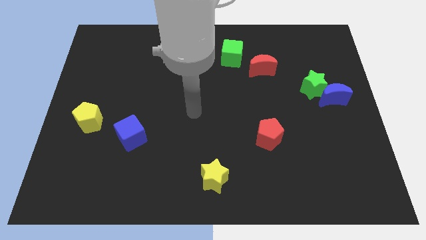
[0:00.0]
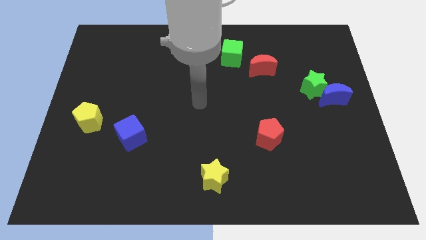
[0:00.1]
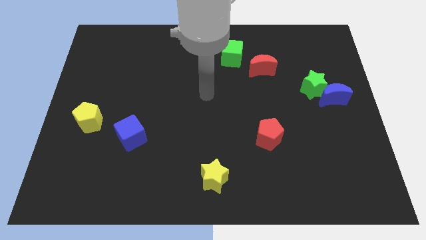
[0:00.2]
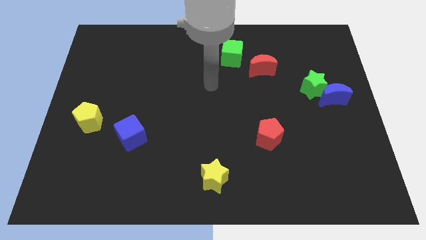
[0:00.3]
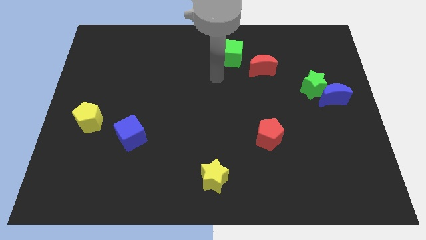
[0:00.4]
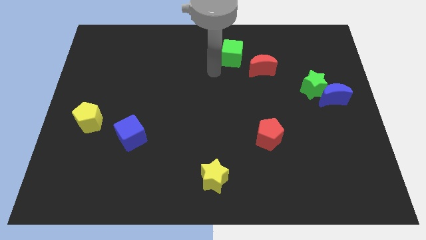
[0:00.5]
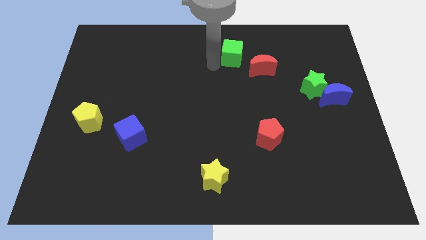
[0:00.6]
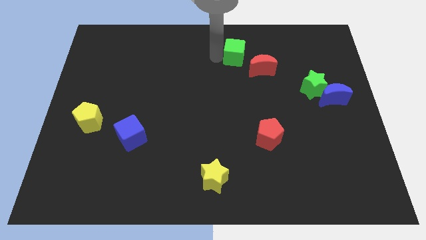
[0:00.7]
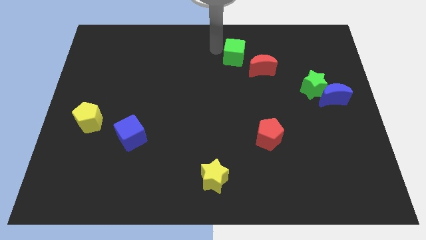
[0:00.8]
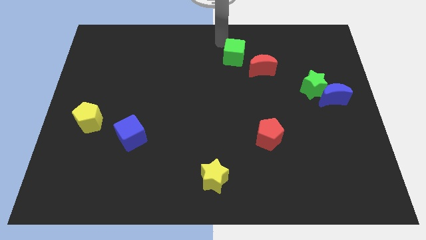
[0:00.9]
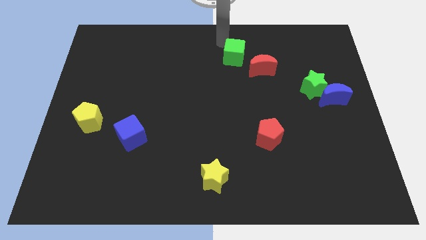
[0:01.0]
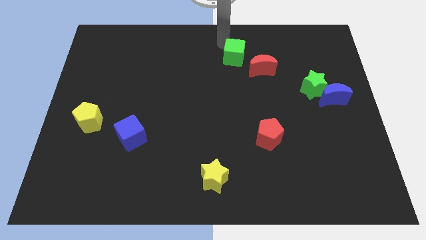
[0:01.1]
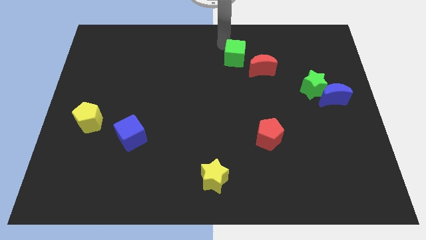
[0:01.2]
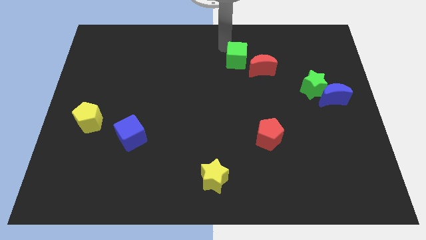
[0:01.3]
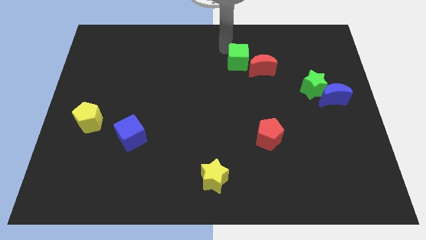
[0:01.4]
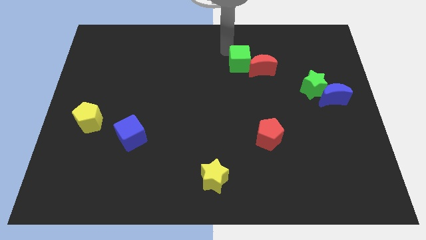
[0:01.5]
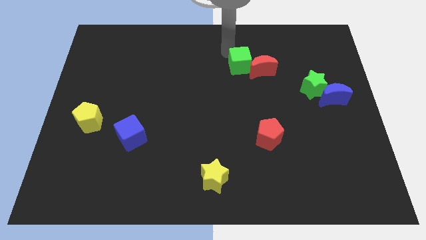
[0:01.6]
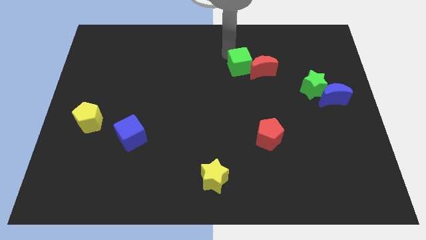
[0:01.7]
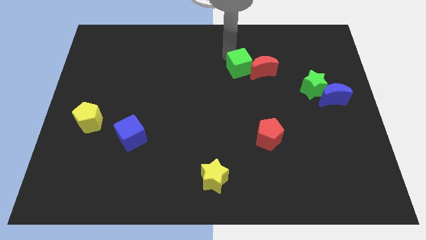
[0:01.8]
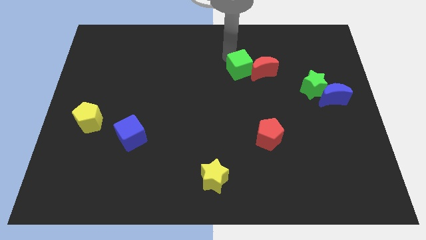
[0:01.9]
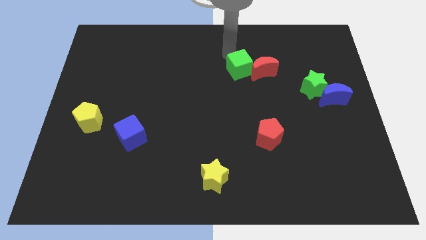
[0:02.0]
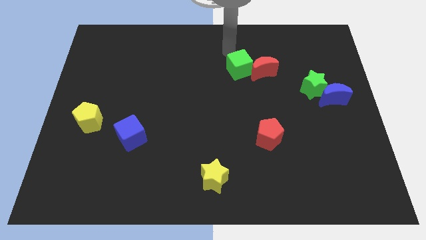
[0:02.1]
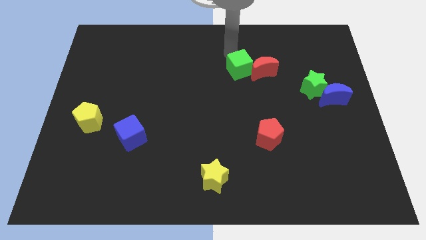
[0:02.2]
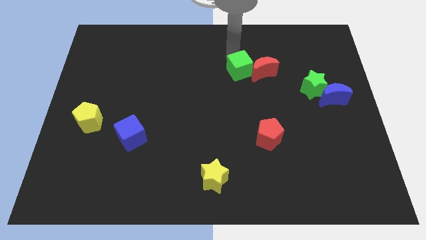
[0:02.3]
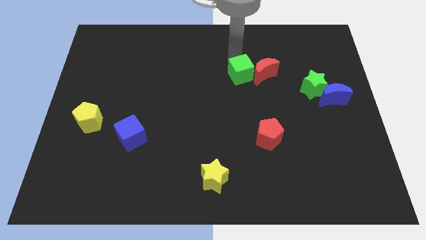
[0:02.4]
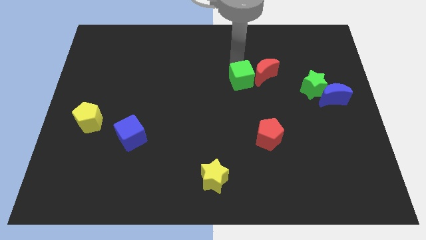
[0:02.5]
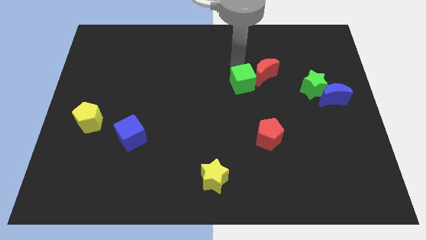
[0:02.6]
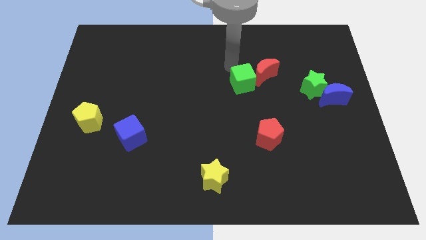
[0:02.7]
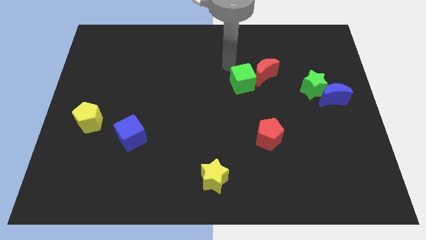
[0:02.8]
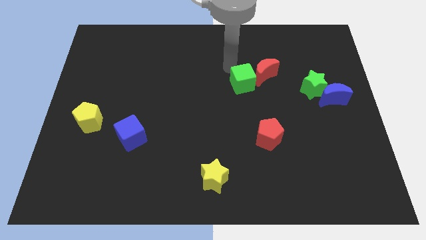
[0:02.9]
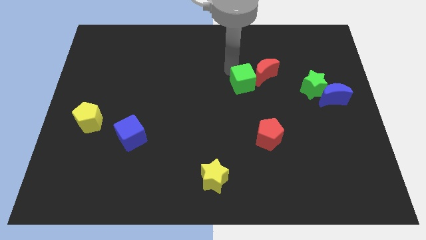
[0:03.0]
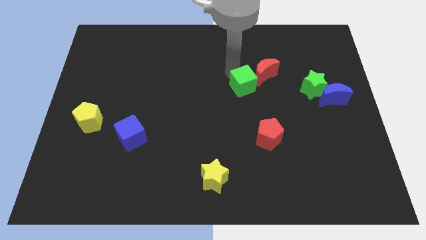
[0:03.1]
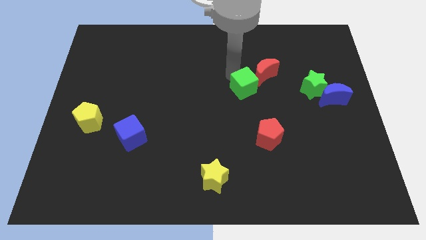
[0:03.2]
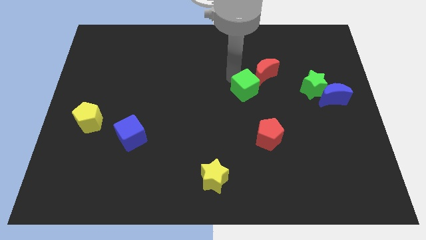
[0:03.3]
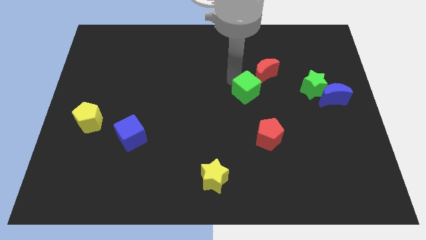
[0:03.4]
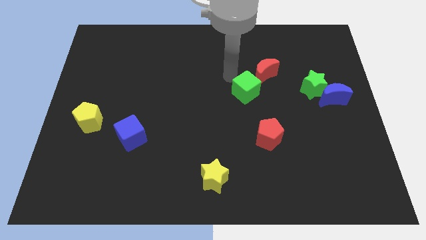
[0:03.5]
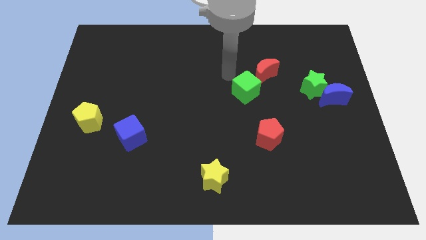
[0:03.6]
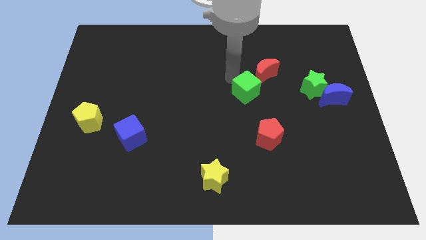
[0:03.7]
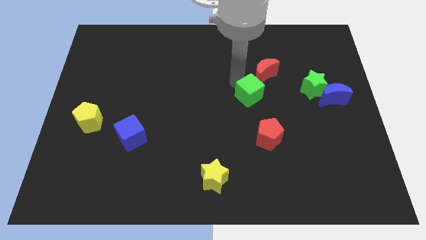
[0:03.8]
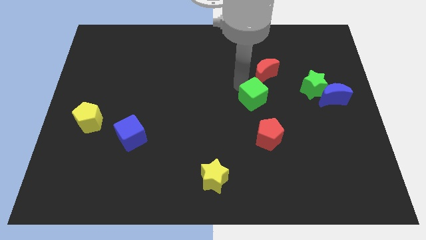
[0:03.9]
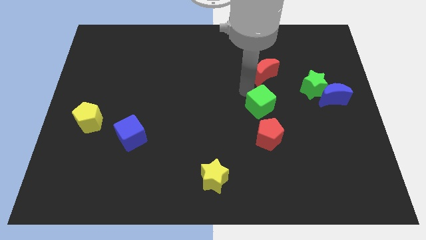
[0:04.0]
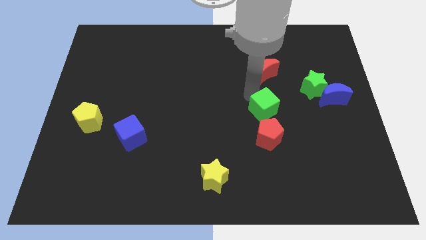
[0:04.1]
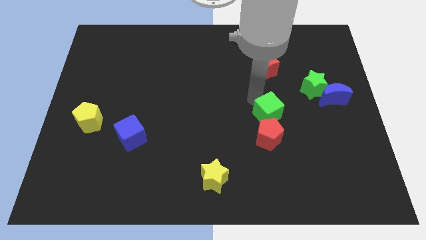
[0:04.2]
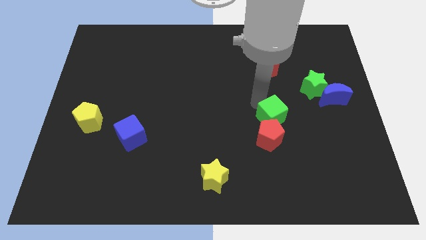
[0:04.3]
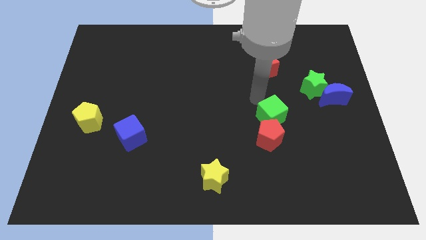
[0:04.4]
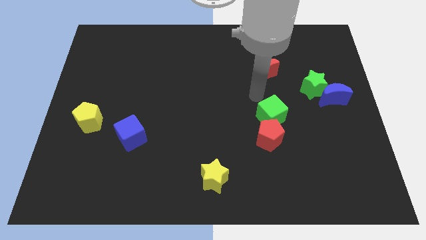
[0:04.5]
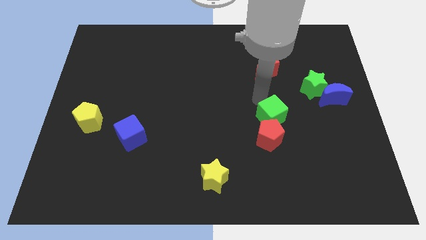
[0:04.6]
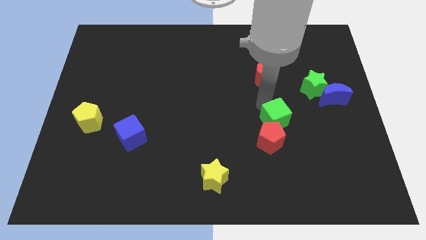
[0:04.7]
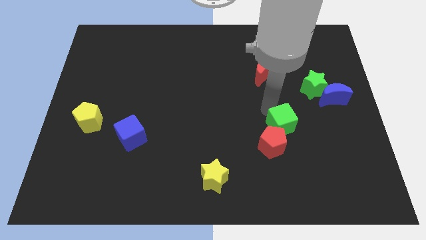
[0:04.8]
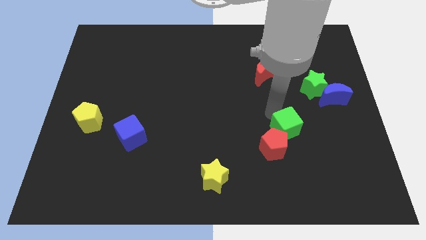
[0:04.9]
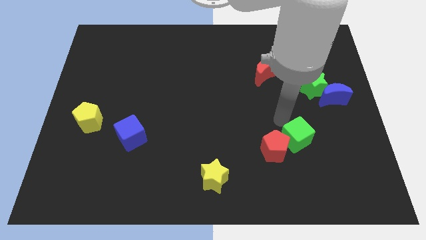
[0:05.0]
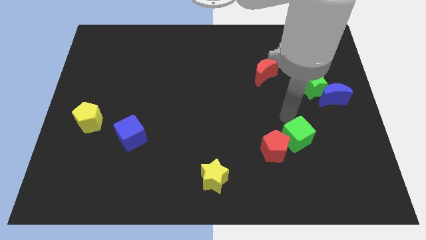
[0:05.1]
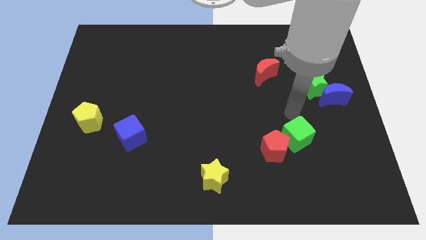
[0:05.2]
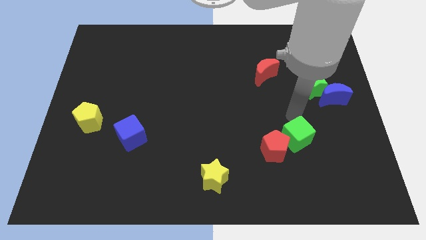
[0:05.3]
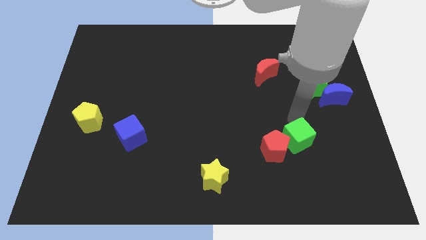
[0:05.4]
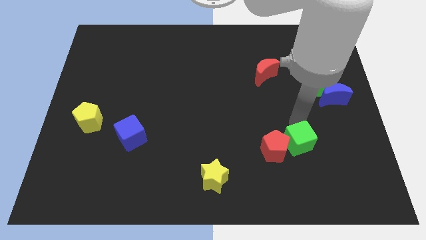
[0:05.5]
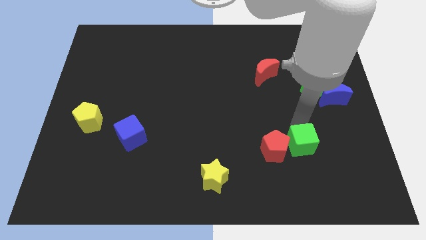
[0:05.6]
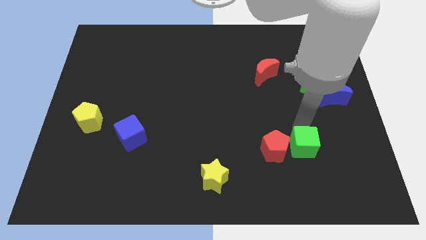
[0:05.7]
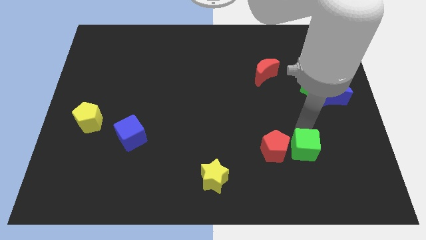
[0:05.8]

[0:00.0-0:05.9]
move the green cube diagonally down and to the right of the red pentagon

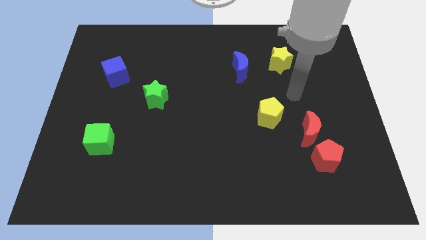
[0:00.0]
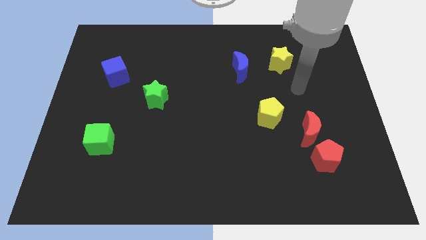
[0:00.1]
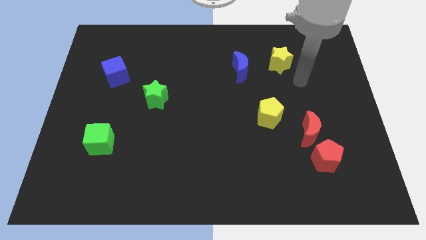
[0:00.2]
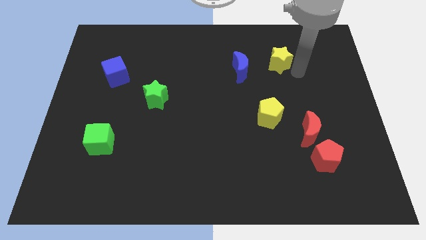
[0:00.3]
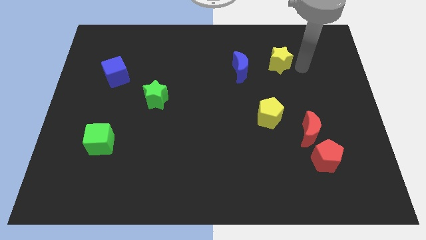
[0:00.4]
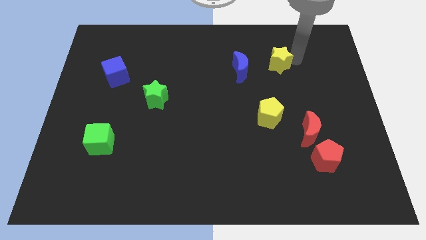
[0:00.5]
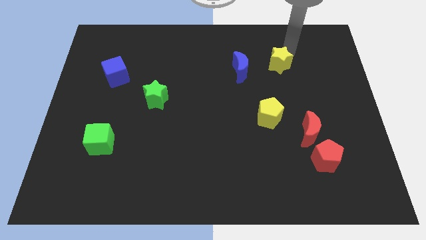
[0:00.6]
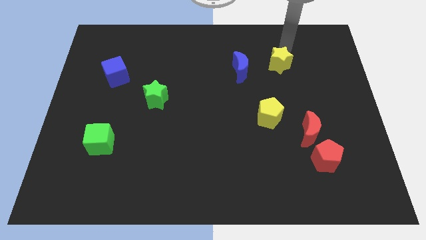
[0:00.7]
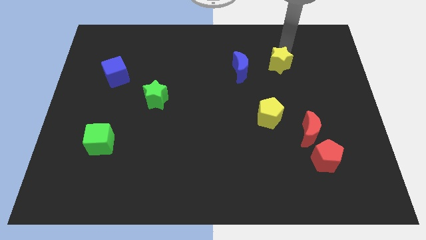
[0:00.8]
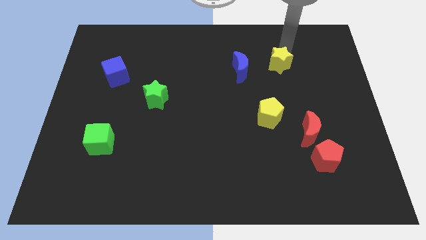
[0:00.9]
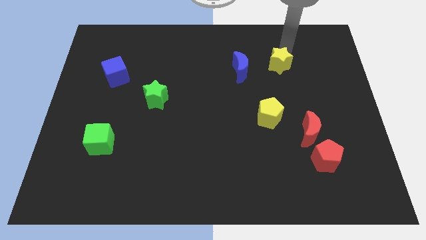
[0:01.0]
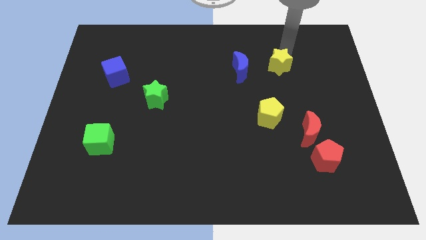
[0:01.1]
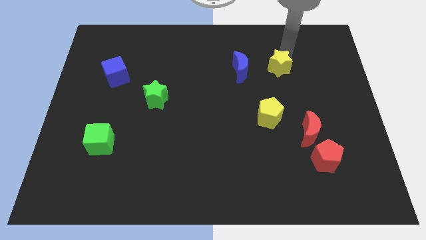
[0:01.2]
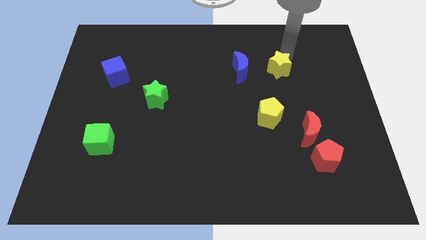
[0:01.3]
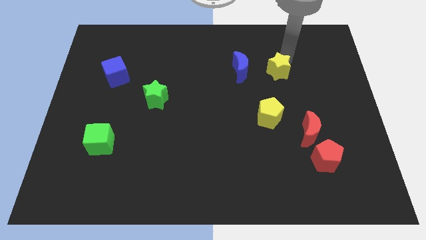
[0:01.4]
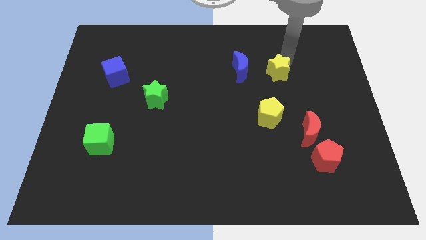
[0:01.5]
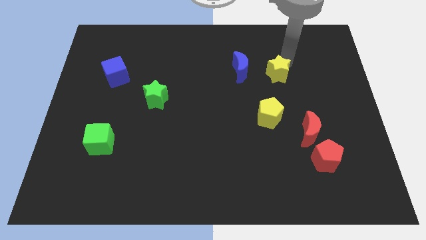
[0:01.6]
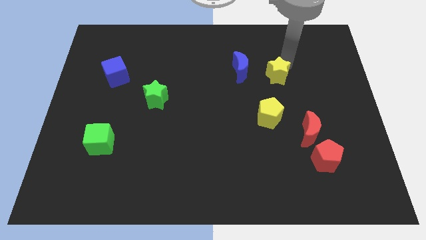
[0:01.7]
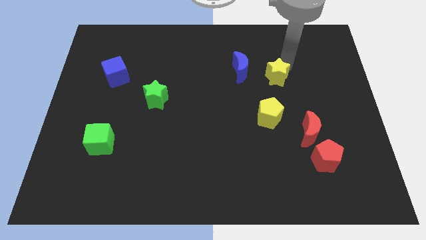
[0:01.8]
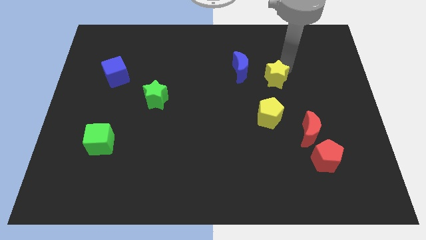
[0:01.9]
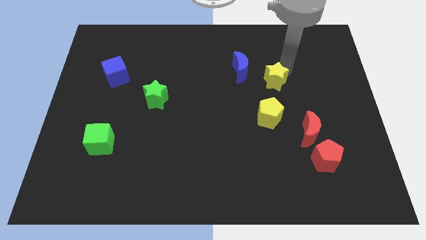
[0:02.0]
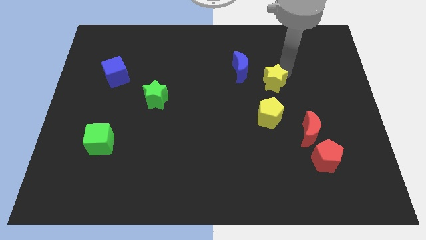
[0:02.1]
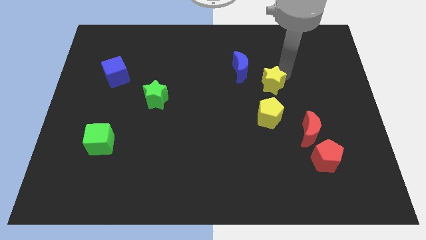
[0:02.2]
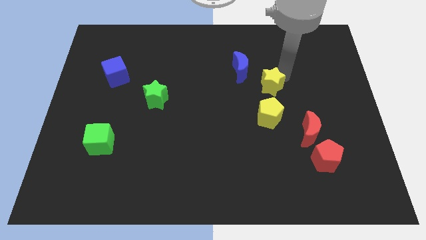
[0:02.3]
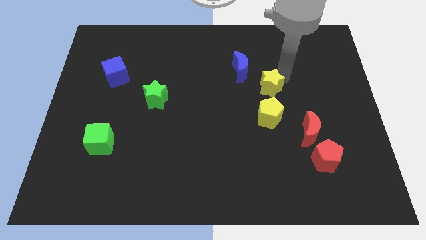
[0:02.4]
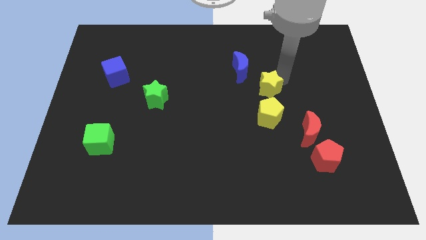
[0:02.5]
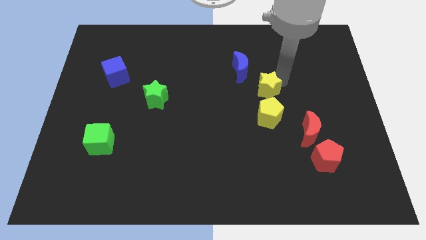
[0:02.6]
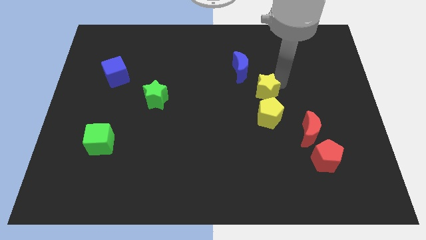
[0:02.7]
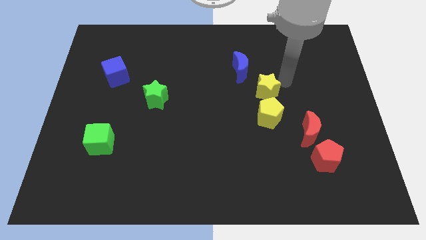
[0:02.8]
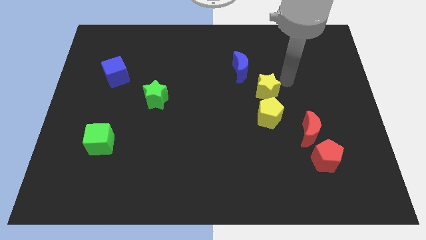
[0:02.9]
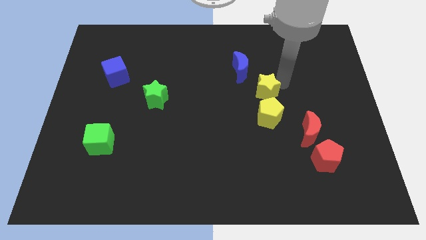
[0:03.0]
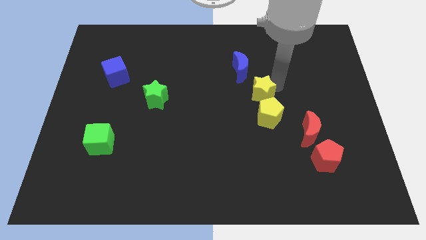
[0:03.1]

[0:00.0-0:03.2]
slide the yellow star to the bottom side of the blue moon
